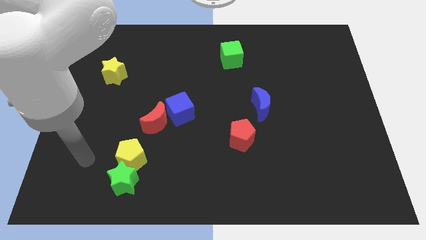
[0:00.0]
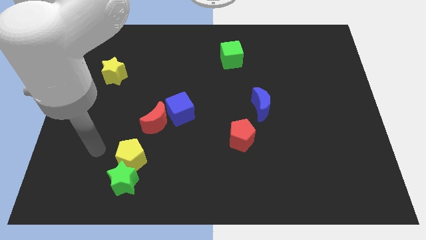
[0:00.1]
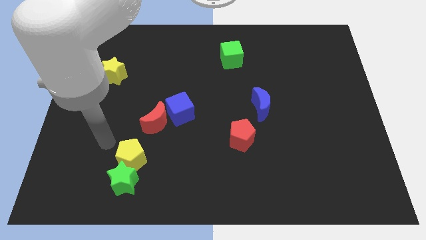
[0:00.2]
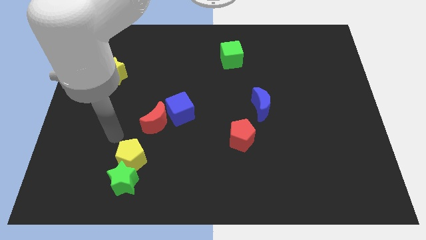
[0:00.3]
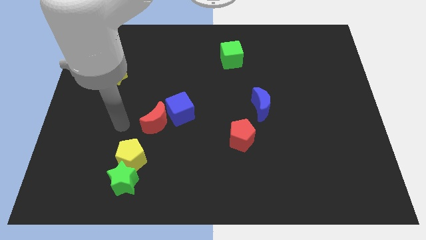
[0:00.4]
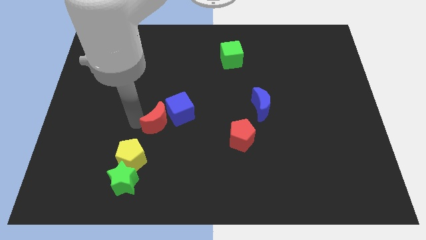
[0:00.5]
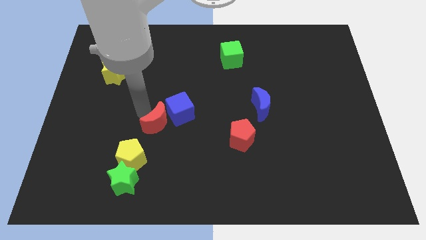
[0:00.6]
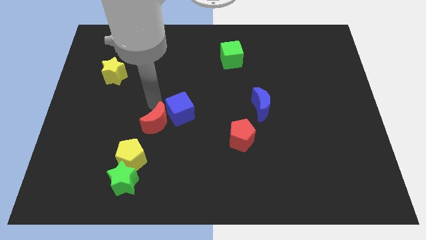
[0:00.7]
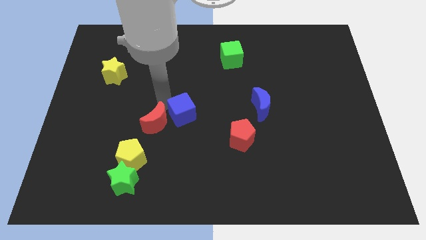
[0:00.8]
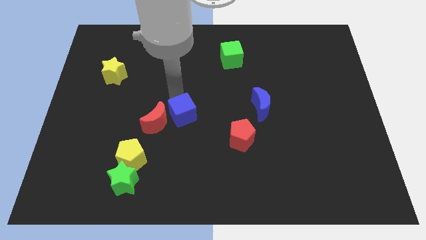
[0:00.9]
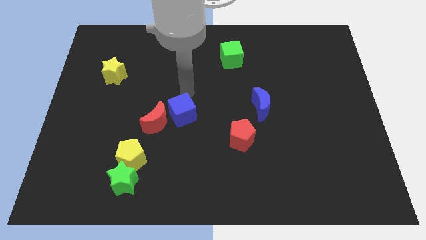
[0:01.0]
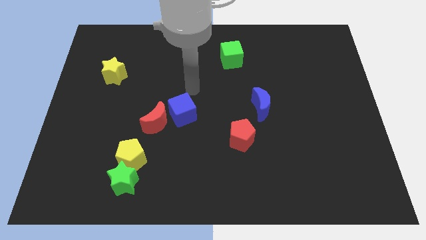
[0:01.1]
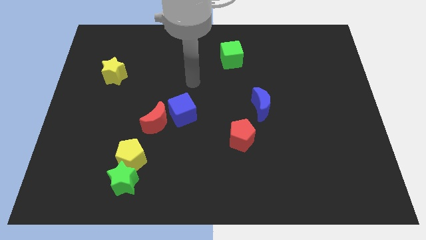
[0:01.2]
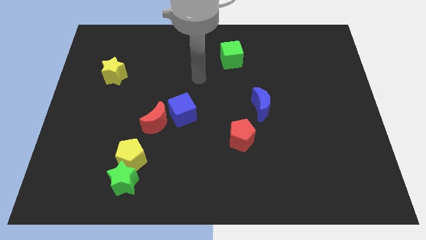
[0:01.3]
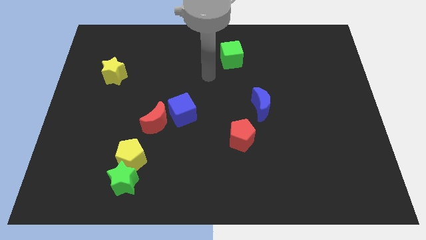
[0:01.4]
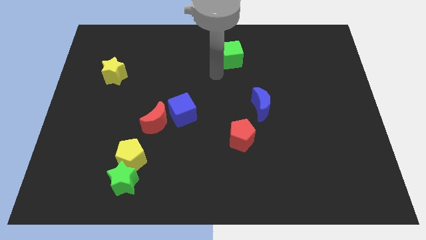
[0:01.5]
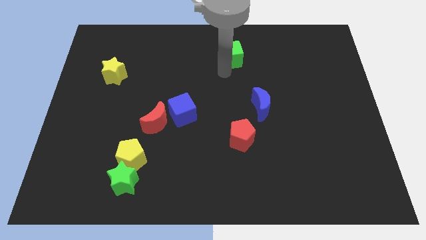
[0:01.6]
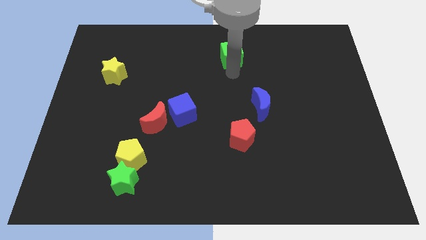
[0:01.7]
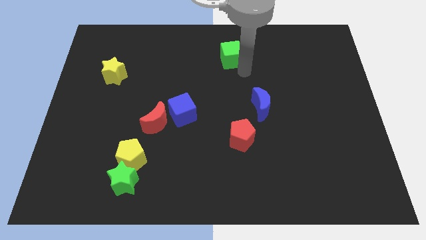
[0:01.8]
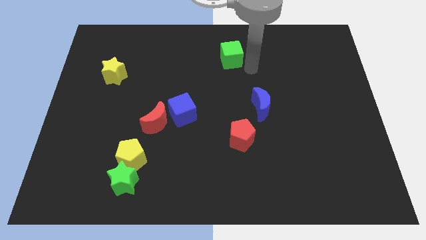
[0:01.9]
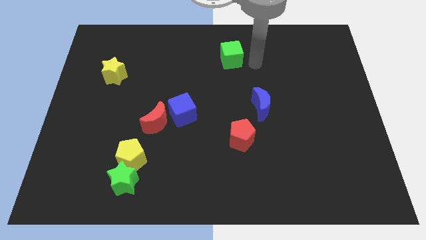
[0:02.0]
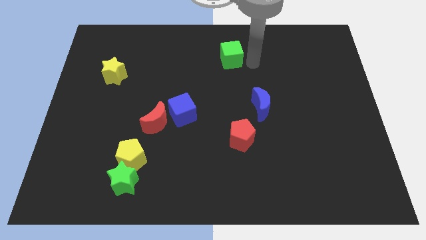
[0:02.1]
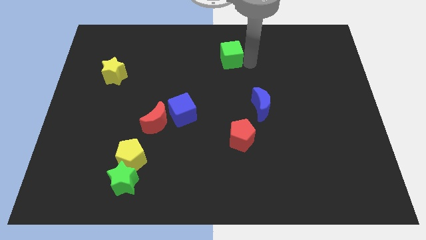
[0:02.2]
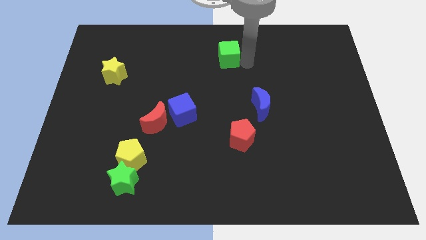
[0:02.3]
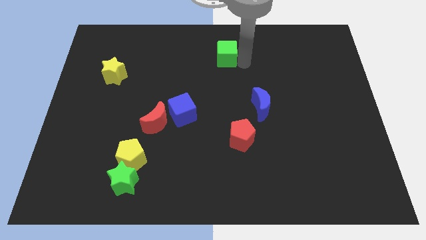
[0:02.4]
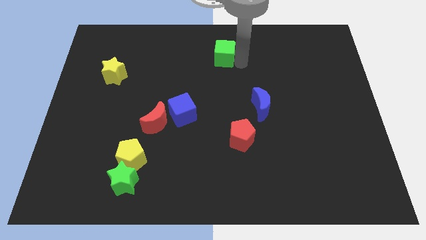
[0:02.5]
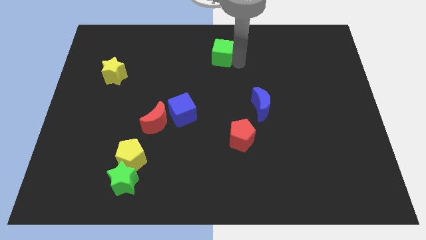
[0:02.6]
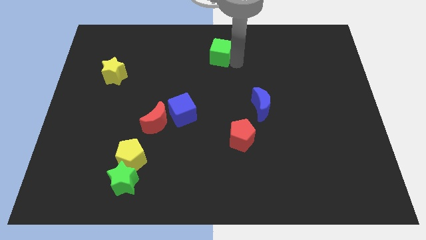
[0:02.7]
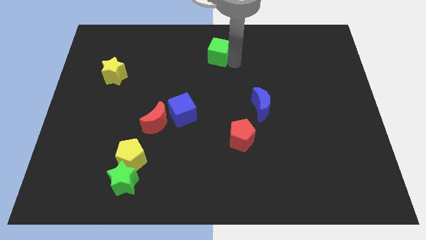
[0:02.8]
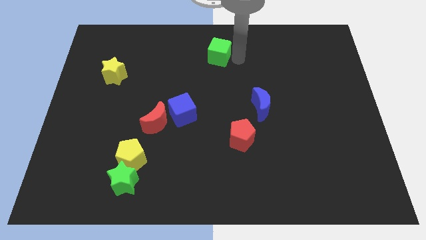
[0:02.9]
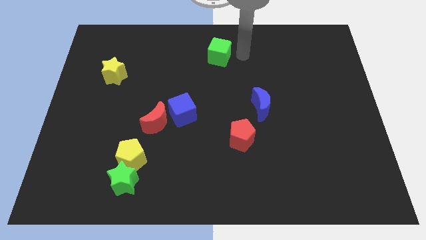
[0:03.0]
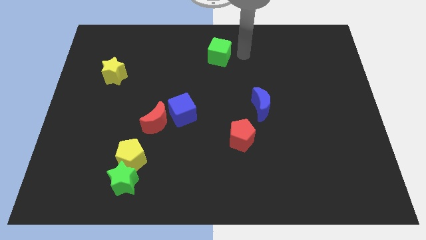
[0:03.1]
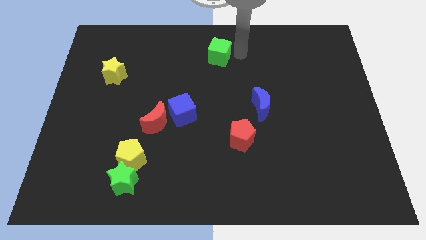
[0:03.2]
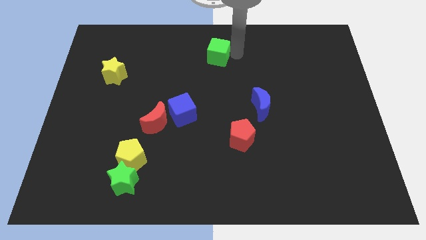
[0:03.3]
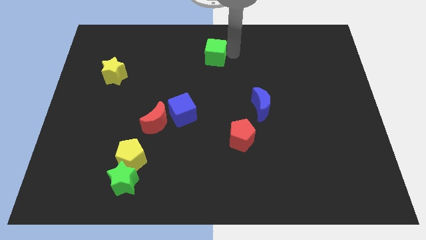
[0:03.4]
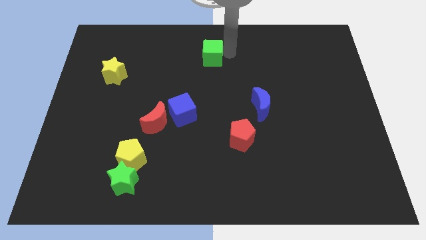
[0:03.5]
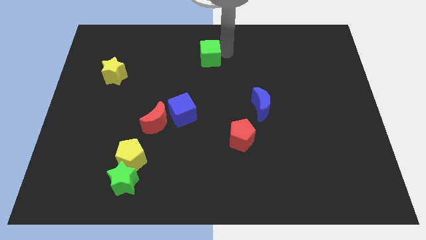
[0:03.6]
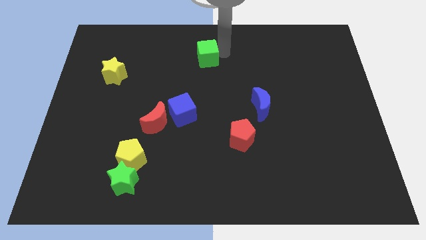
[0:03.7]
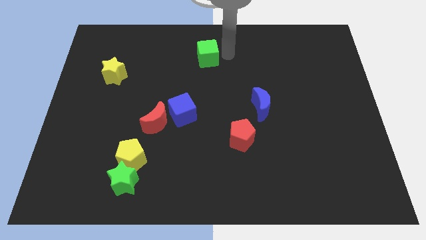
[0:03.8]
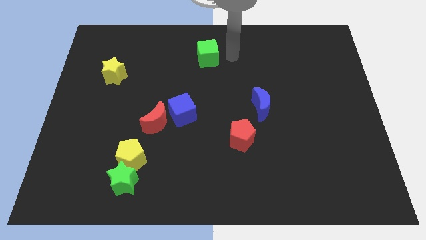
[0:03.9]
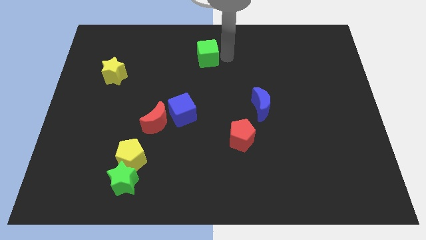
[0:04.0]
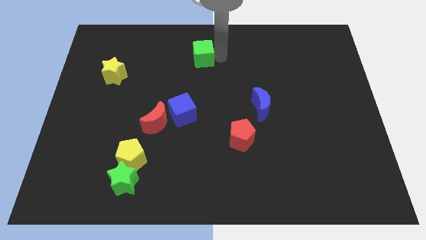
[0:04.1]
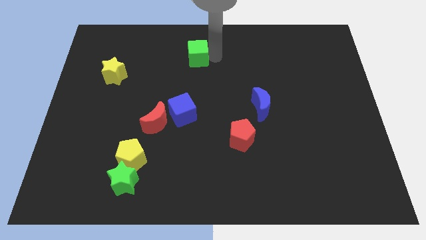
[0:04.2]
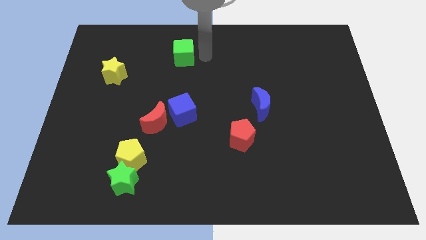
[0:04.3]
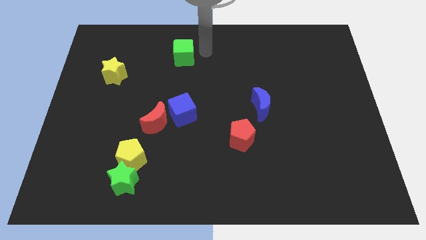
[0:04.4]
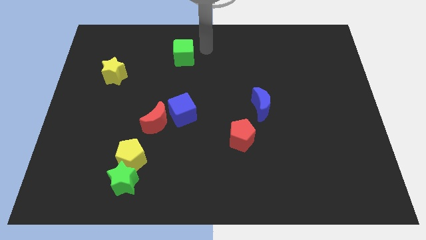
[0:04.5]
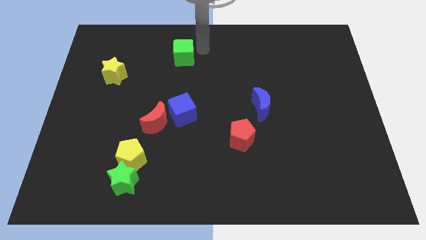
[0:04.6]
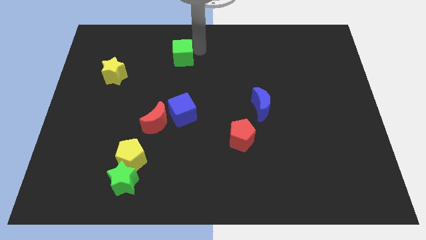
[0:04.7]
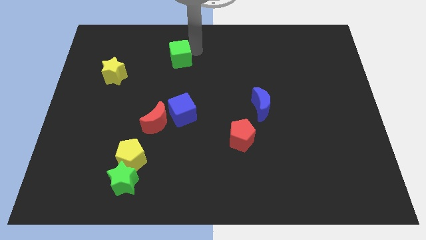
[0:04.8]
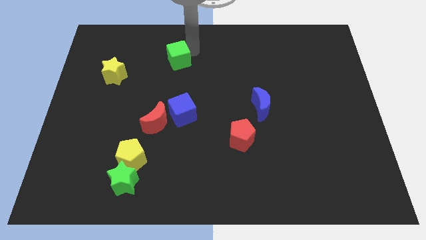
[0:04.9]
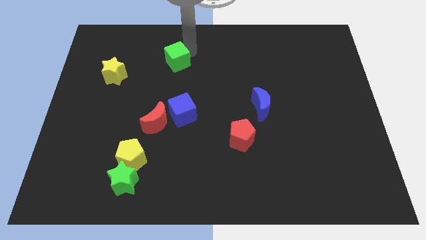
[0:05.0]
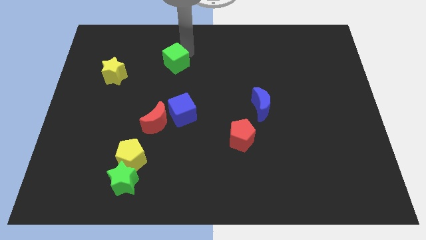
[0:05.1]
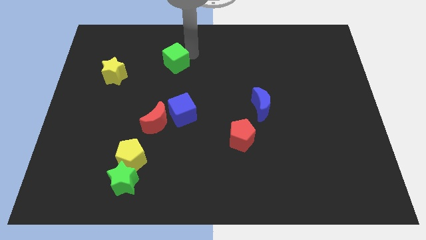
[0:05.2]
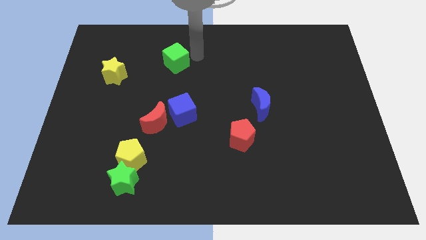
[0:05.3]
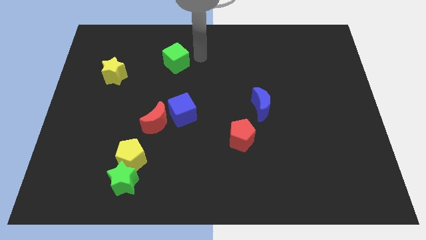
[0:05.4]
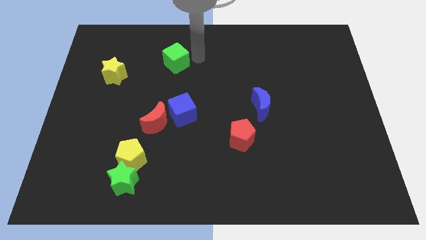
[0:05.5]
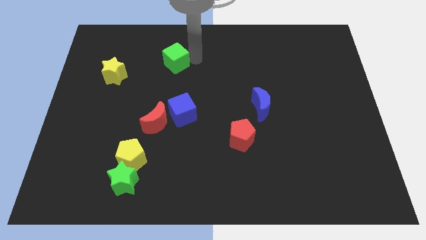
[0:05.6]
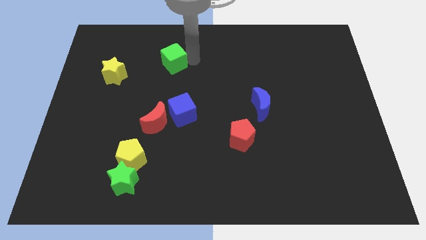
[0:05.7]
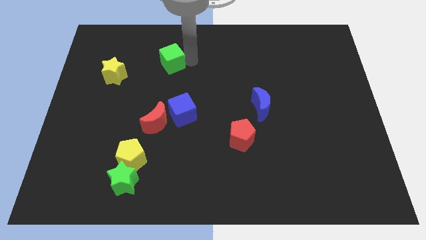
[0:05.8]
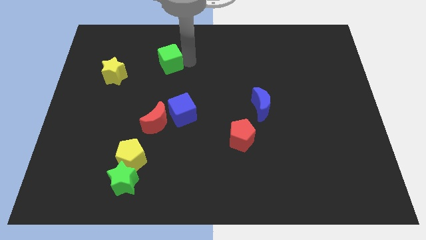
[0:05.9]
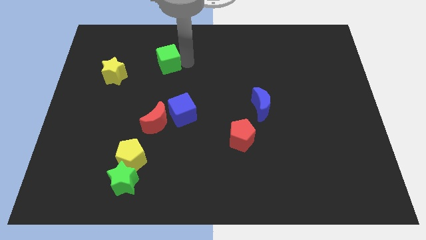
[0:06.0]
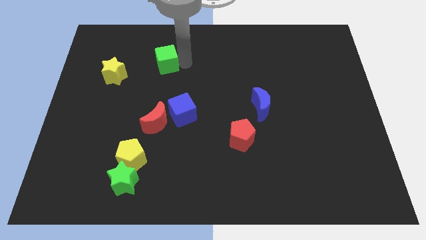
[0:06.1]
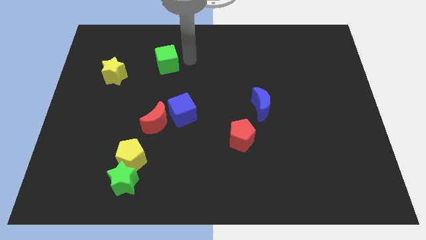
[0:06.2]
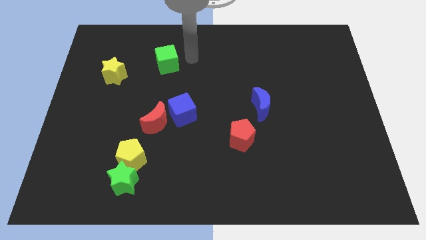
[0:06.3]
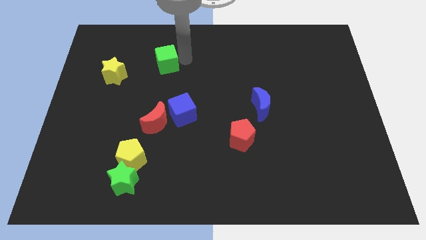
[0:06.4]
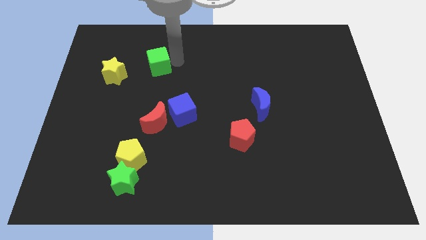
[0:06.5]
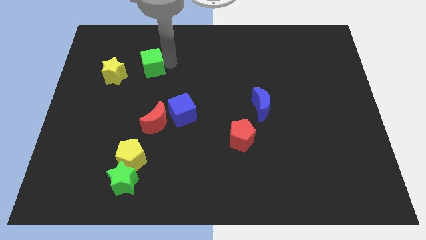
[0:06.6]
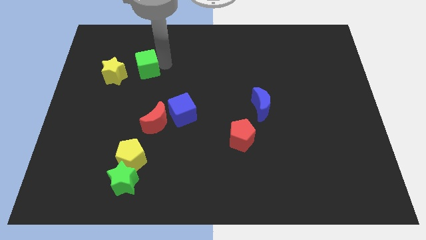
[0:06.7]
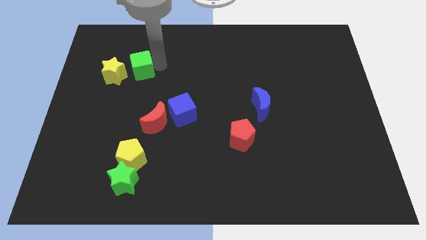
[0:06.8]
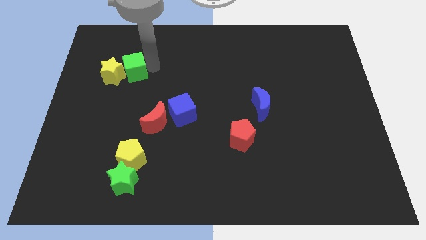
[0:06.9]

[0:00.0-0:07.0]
move the green cube towards the yellow star
